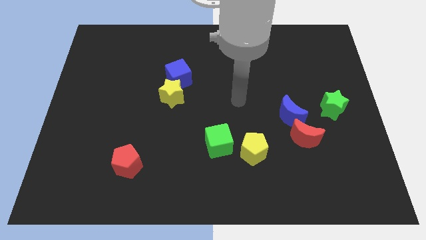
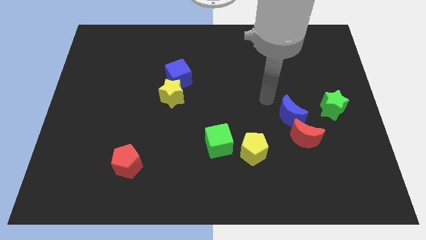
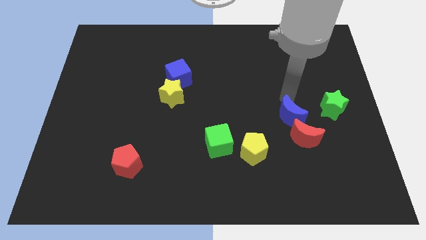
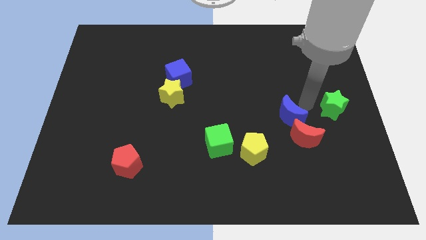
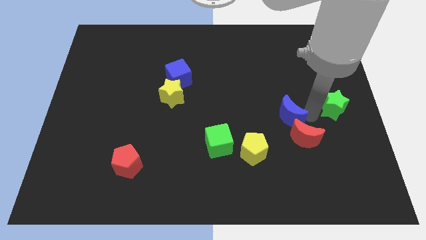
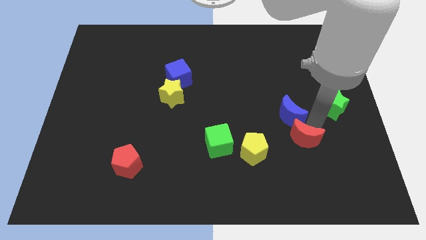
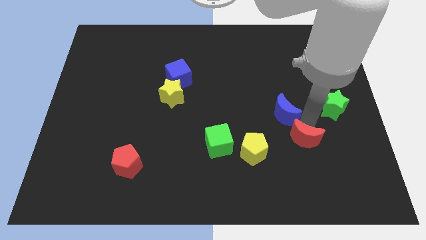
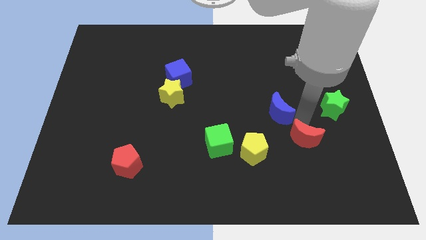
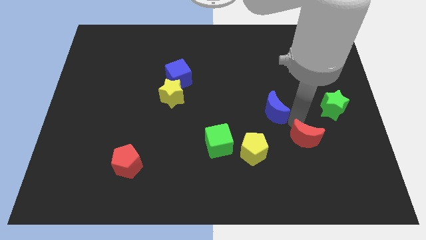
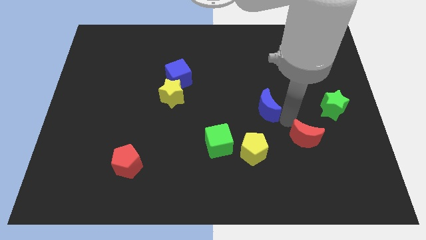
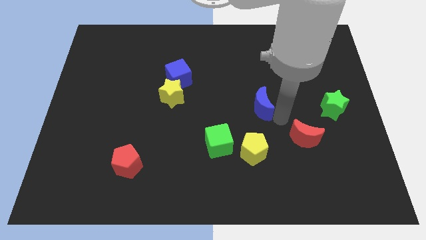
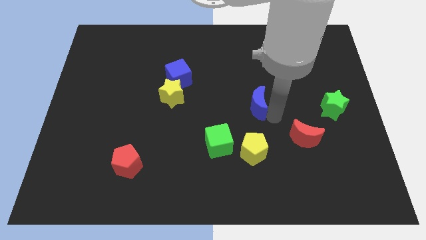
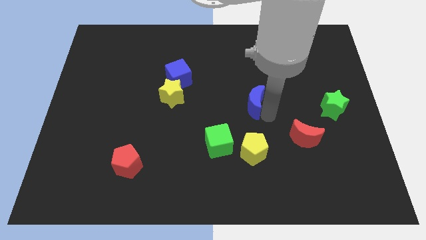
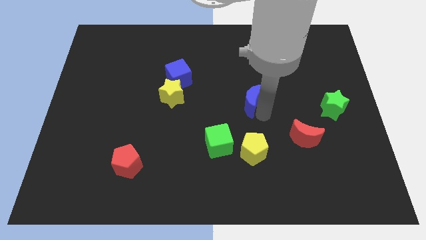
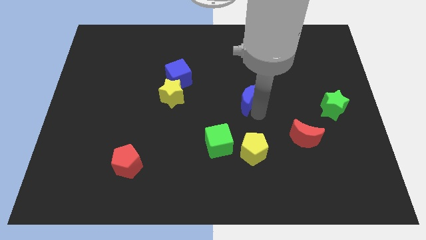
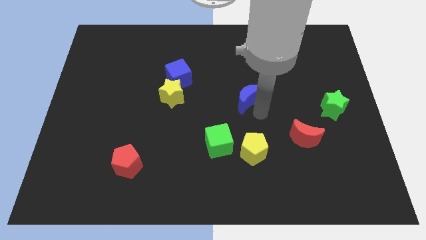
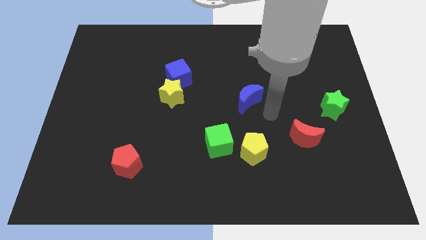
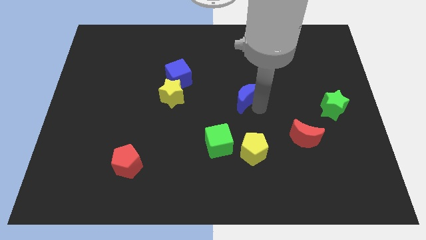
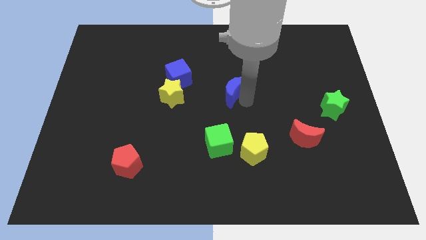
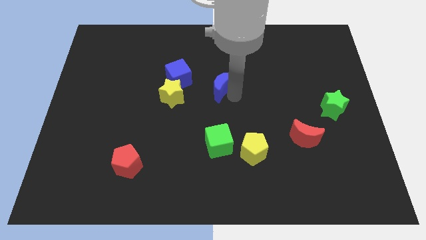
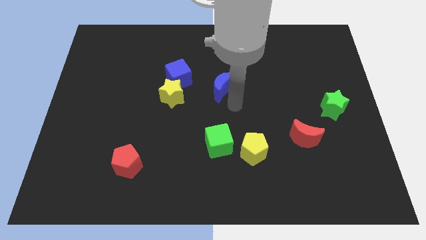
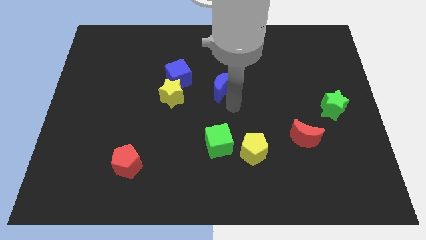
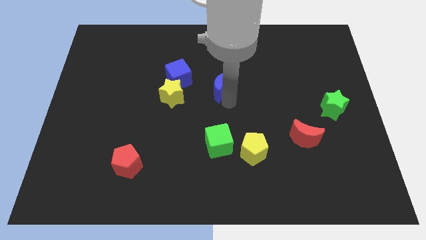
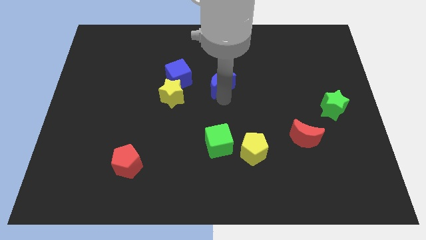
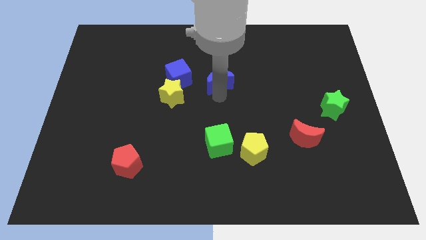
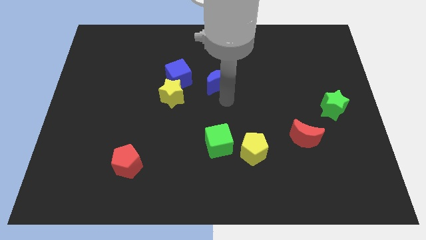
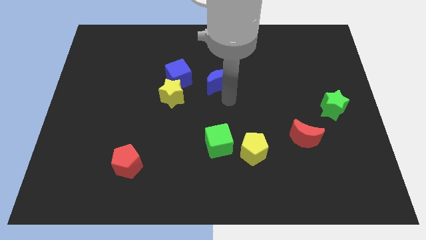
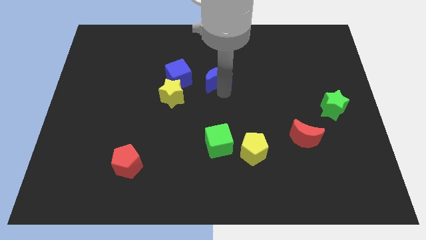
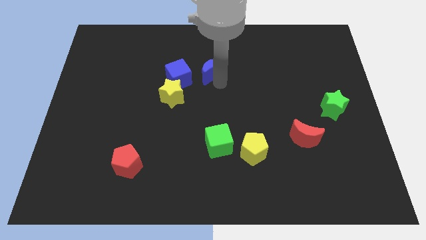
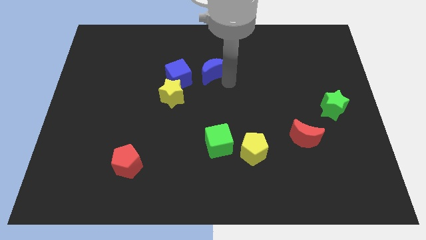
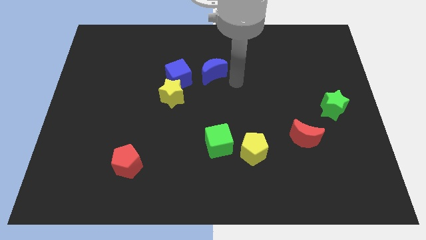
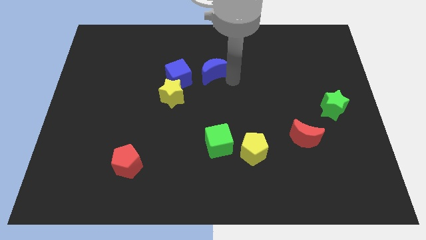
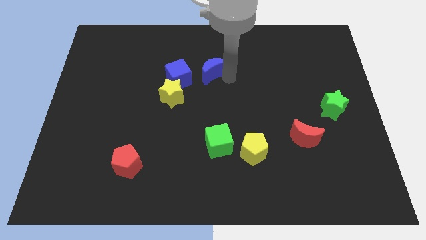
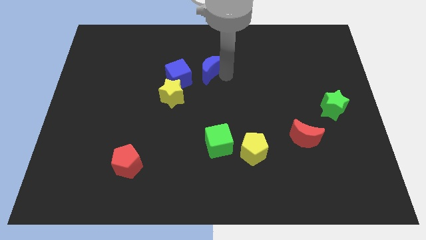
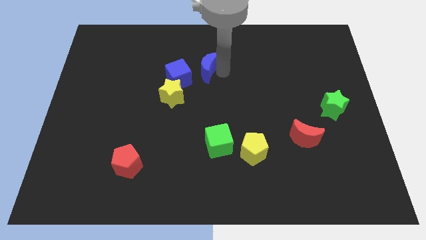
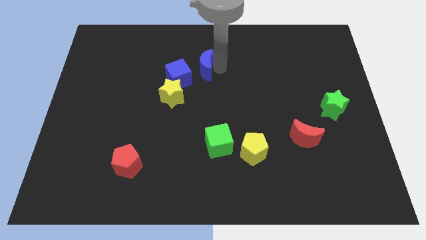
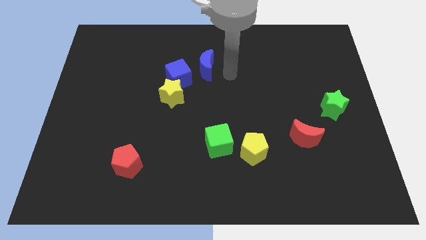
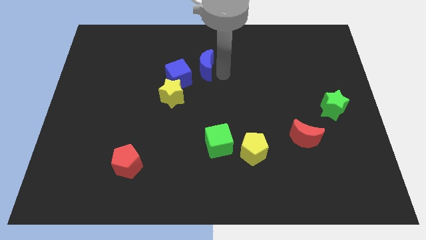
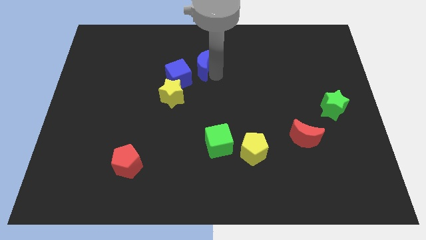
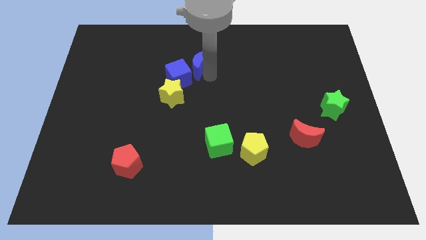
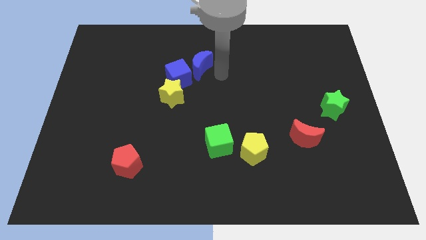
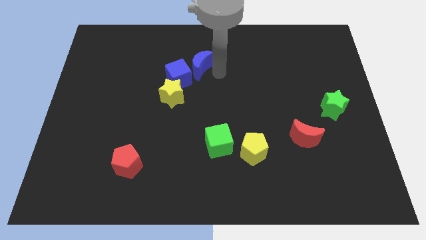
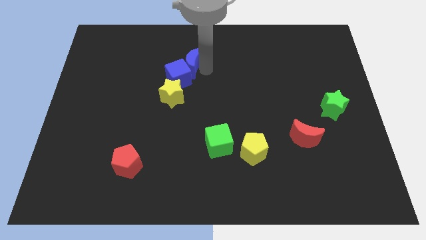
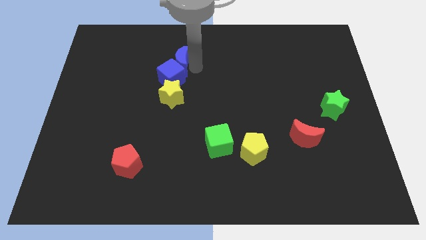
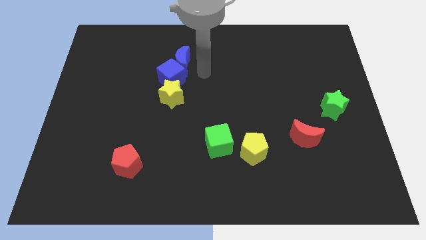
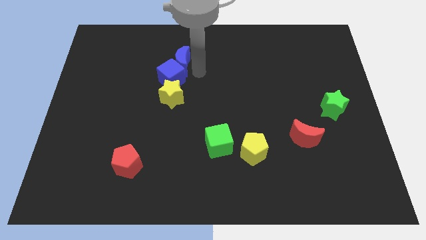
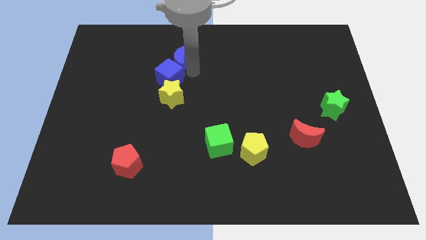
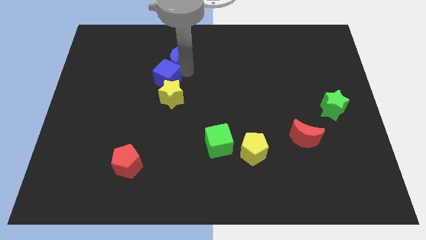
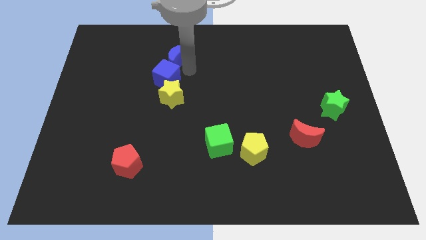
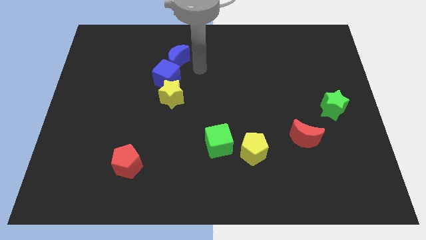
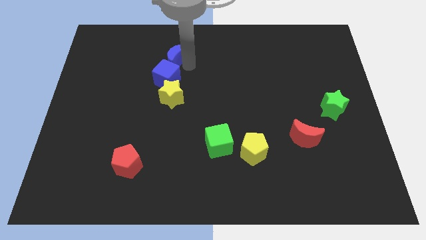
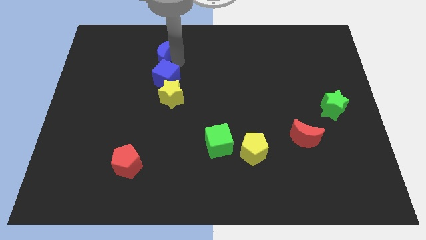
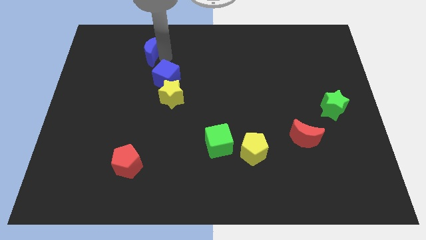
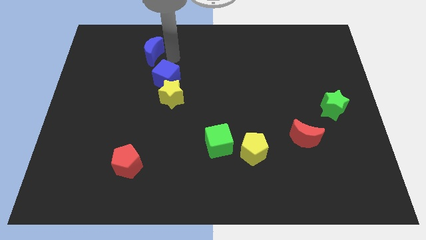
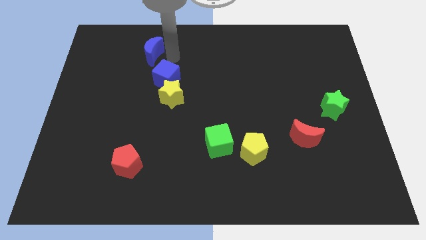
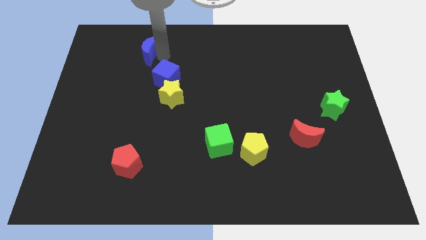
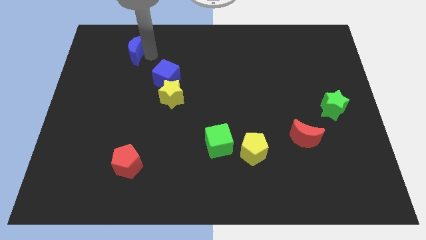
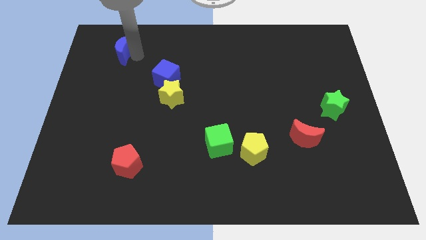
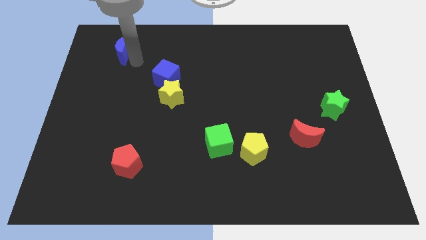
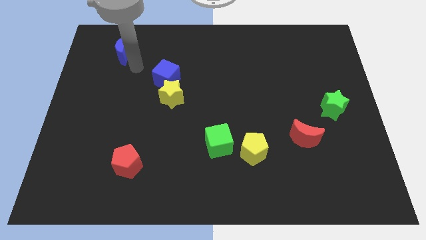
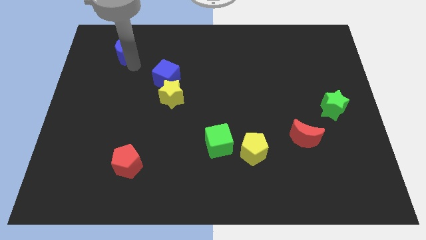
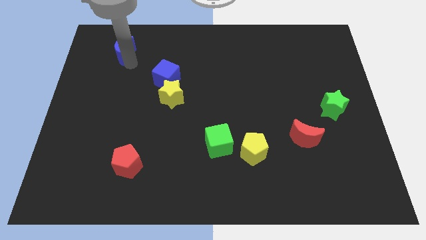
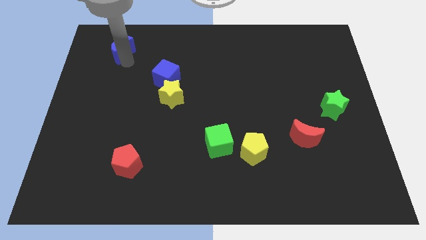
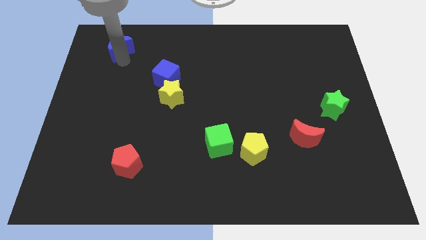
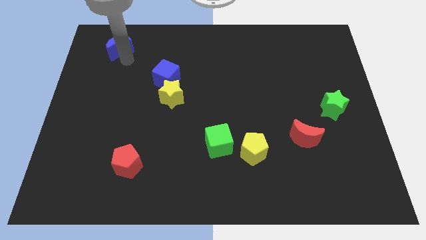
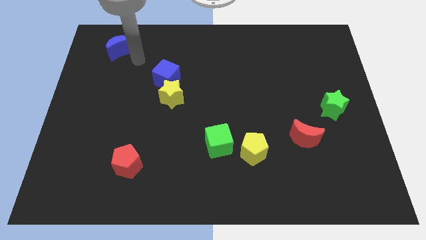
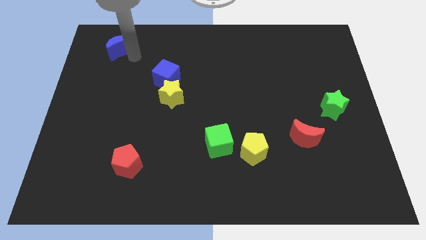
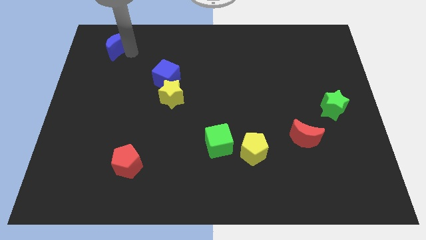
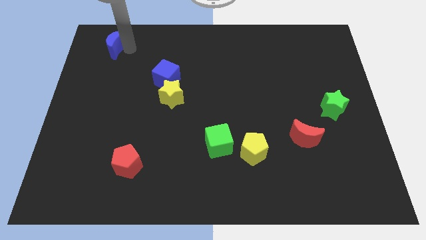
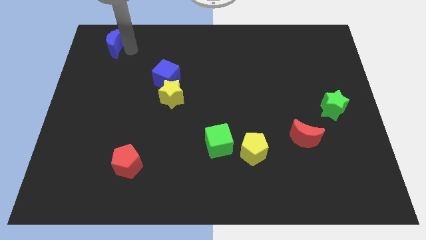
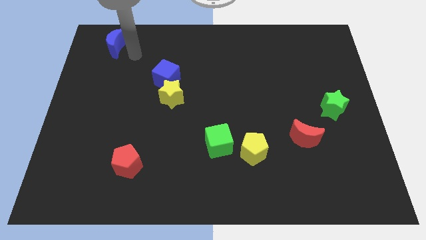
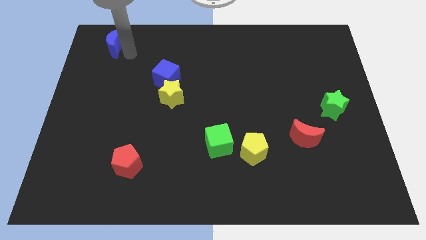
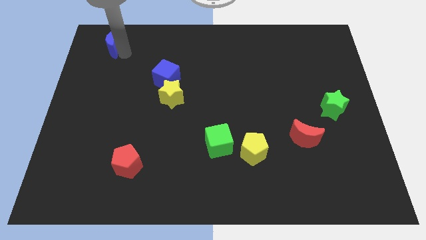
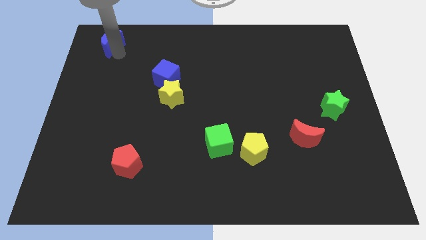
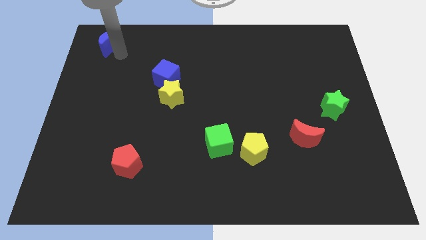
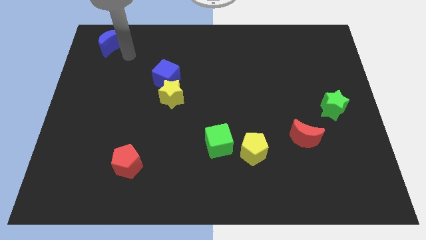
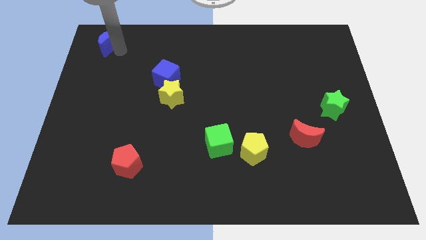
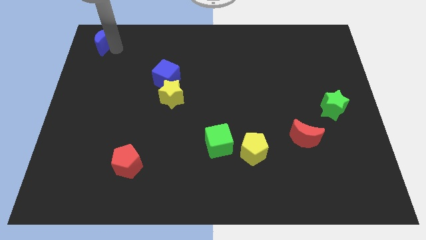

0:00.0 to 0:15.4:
move the blue moon to the top left of the board

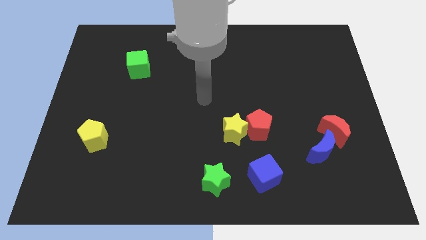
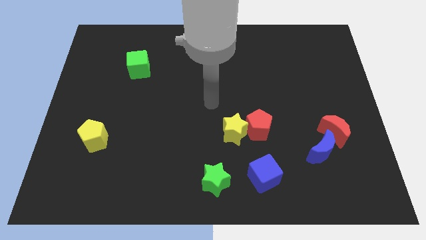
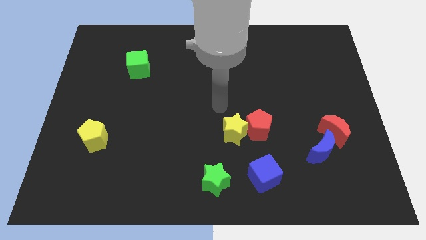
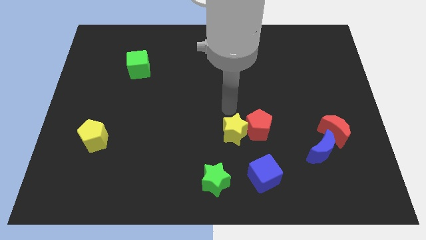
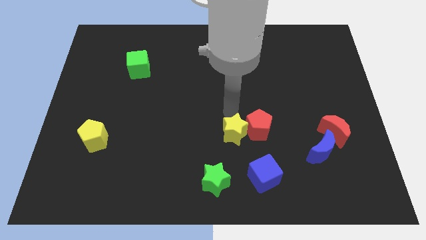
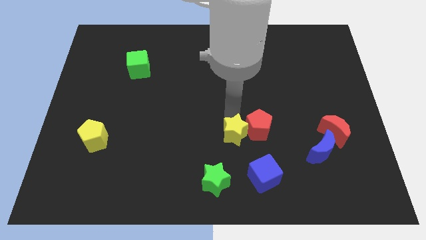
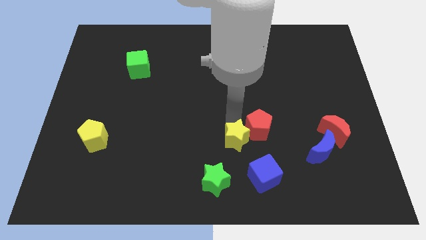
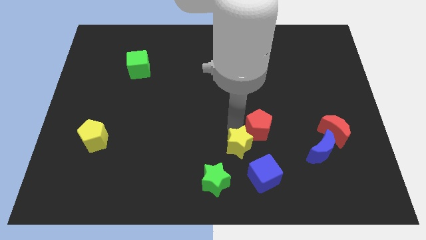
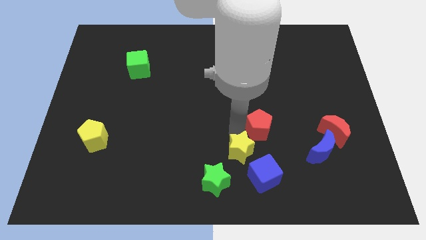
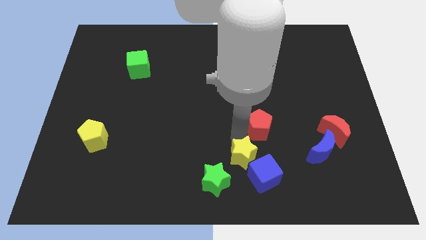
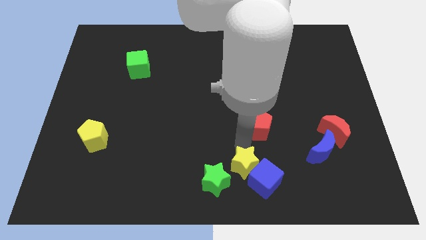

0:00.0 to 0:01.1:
move the yellow star to the bottom side
